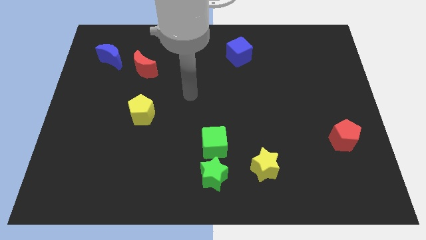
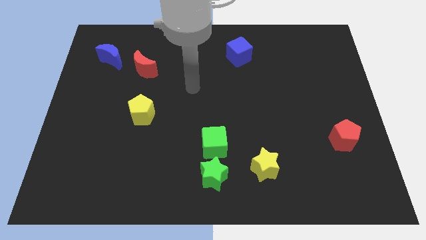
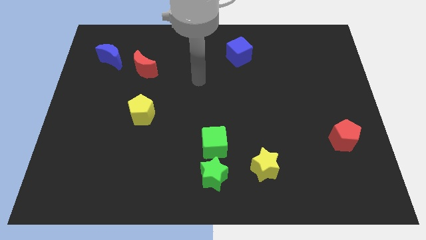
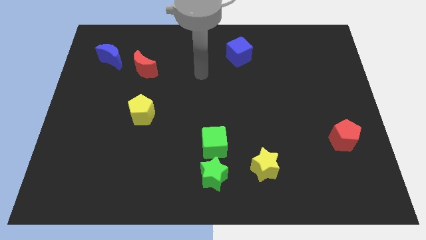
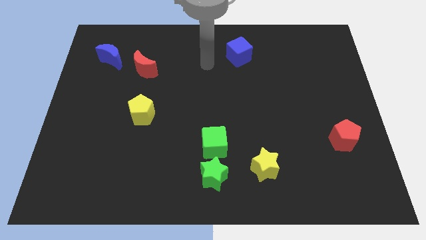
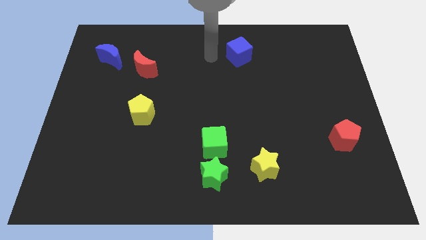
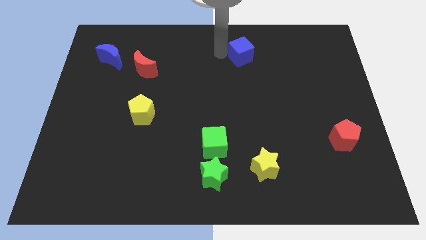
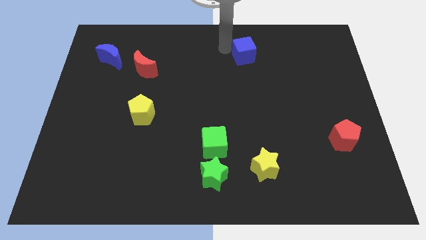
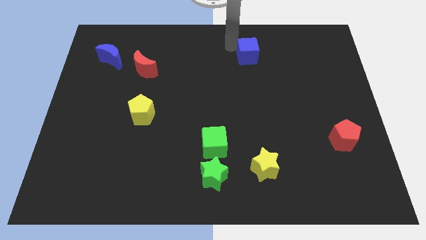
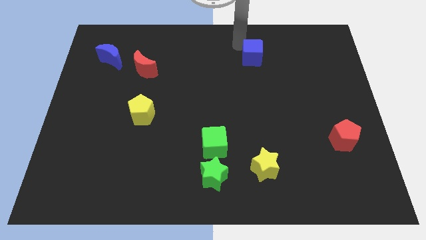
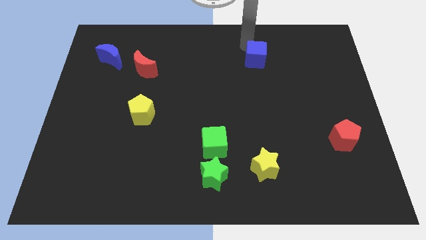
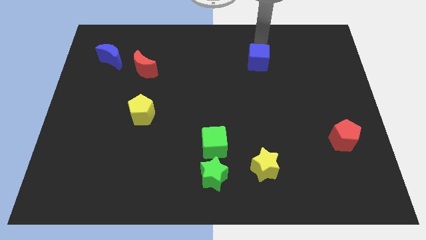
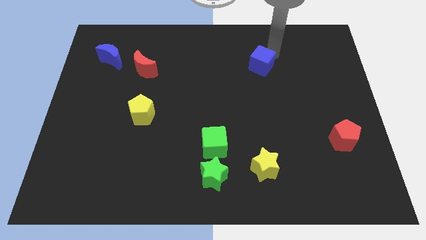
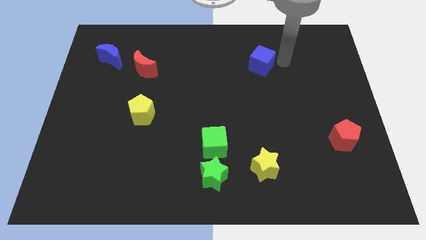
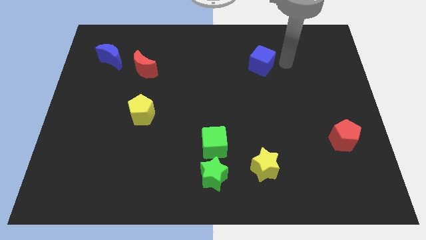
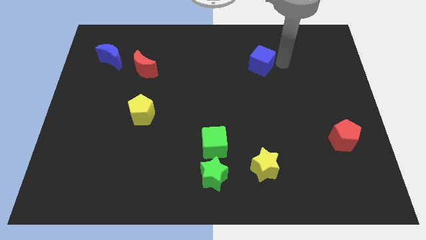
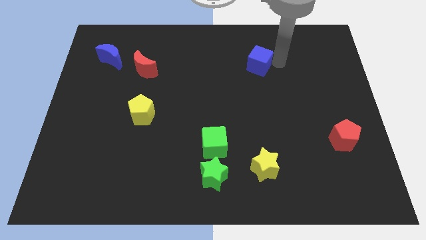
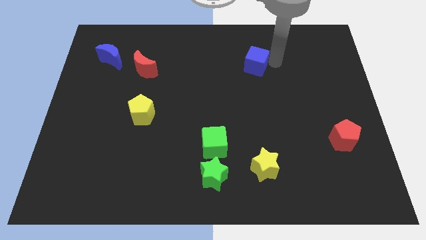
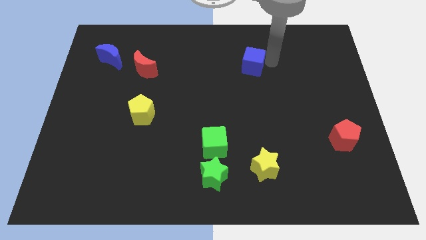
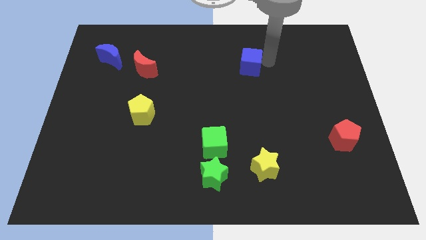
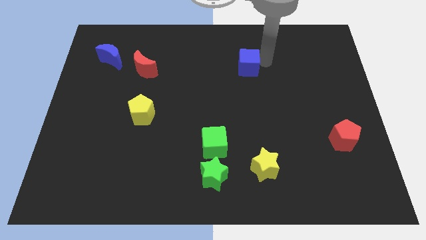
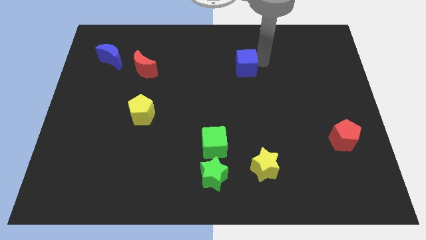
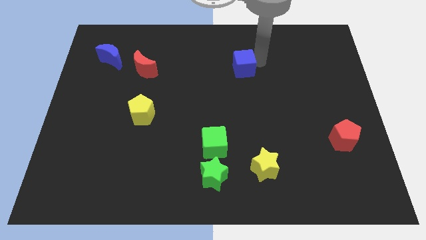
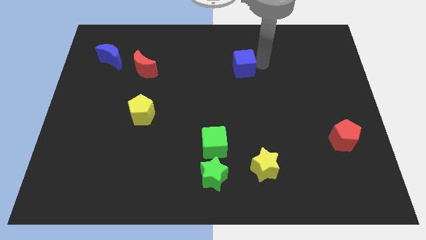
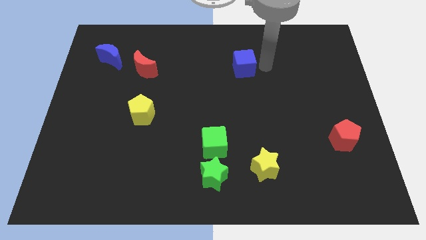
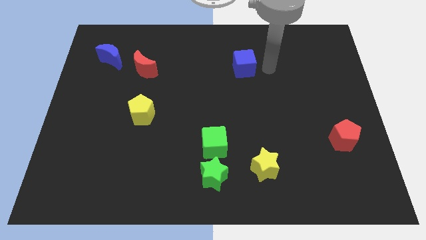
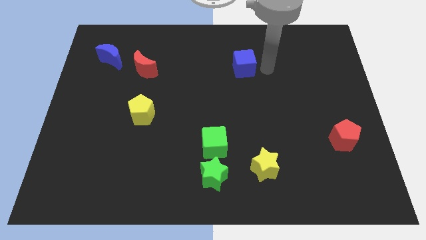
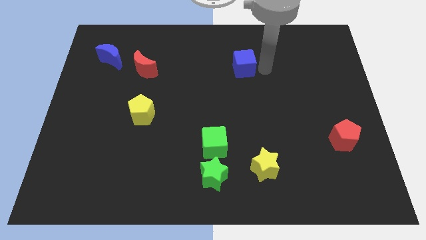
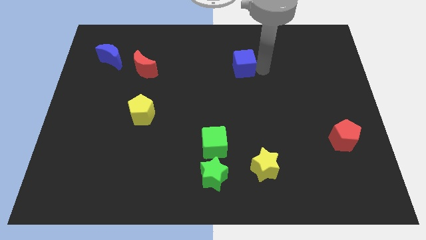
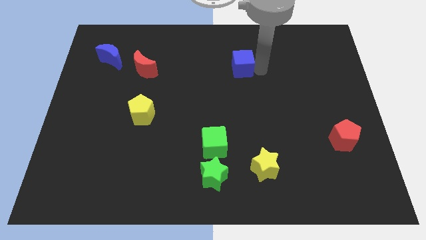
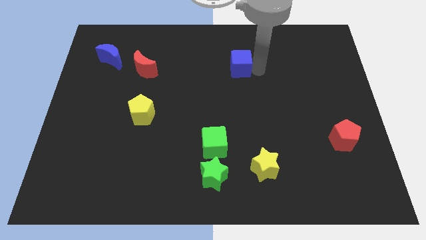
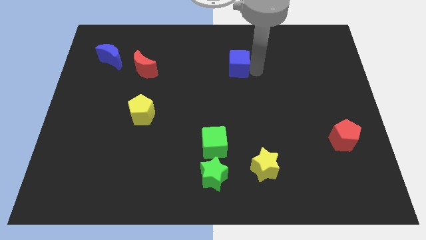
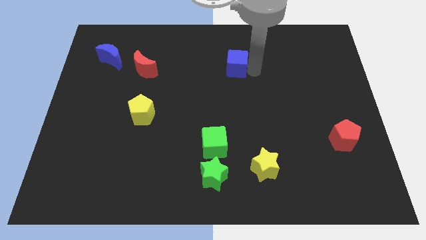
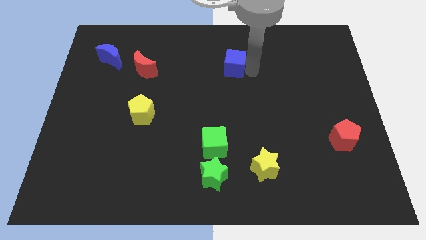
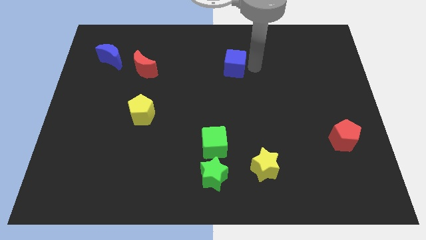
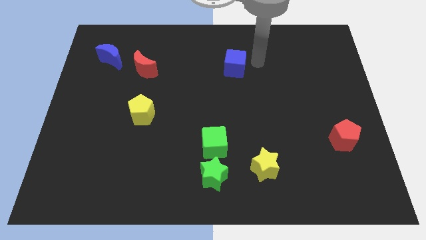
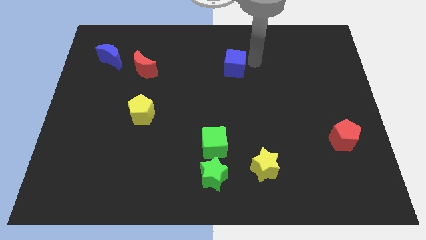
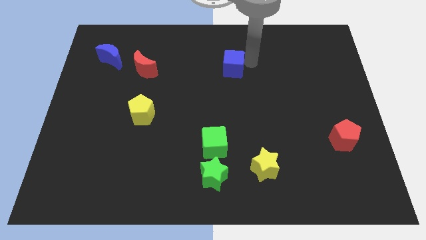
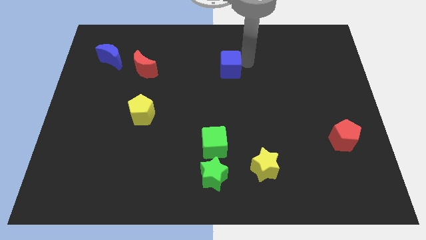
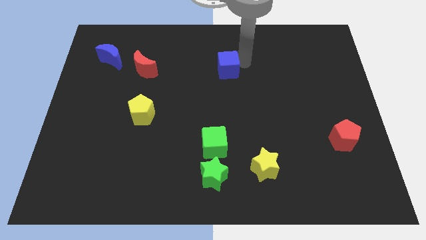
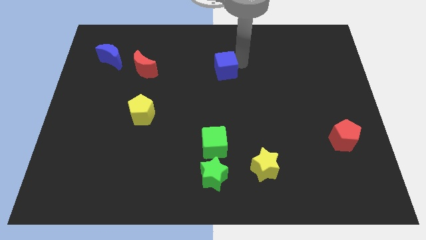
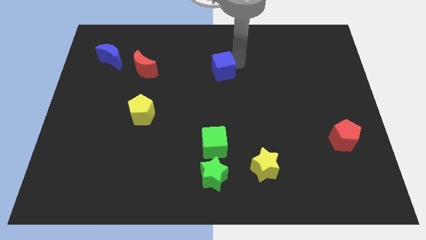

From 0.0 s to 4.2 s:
push the blue cube down and to the left a bit

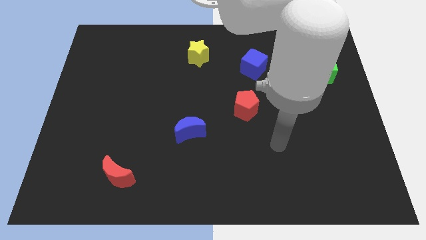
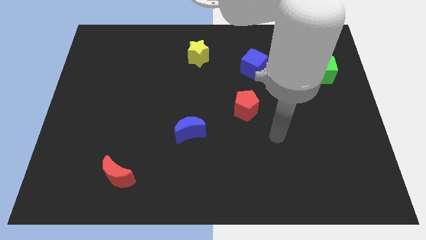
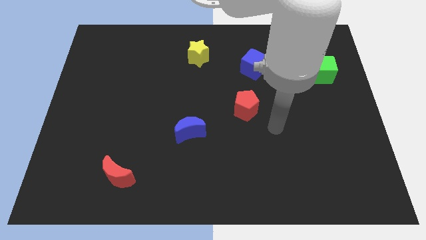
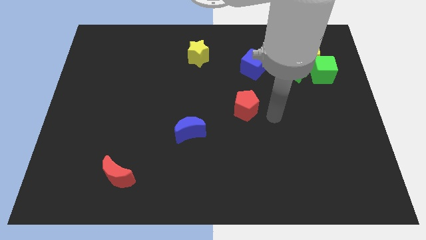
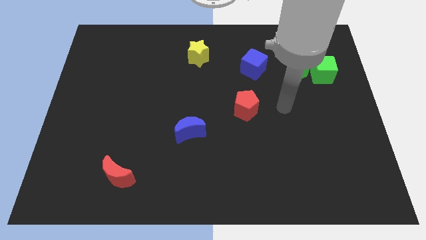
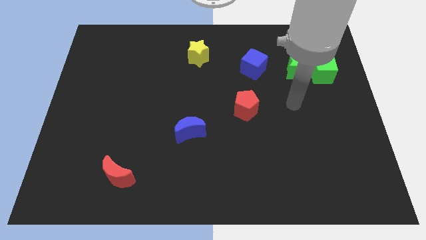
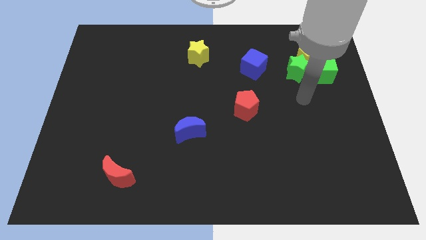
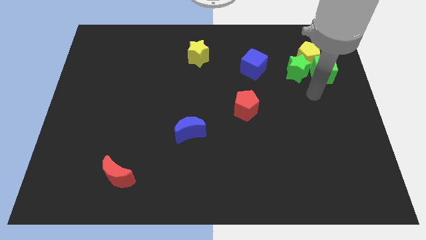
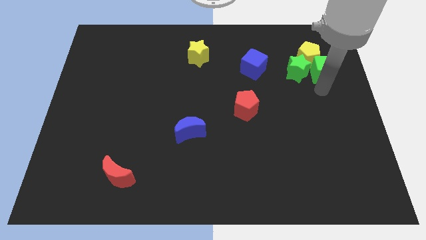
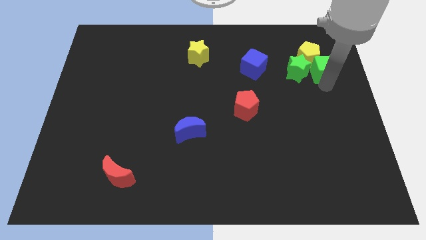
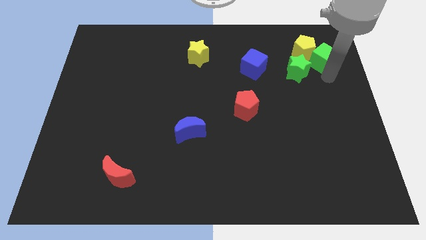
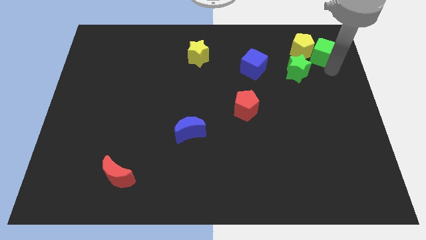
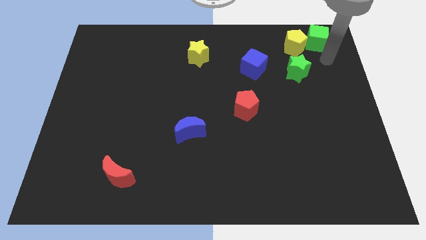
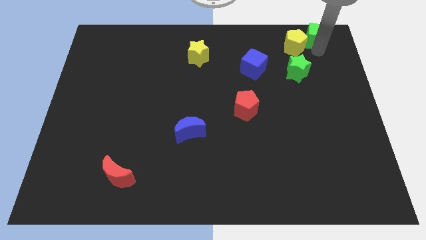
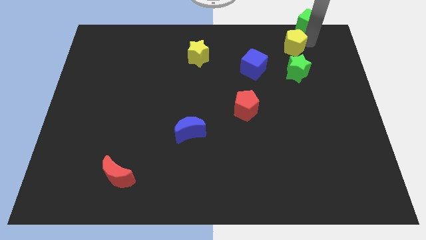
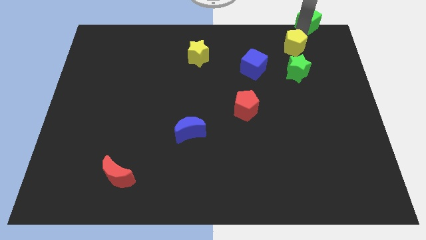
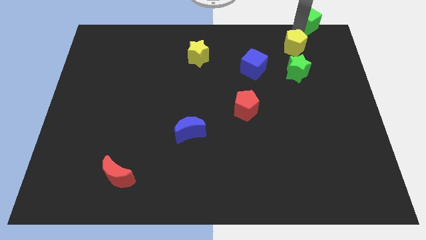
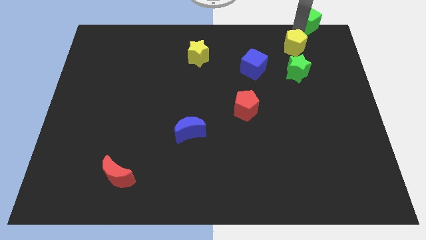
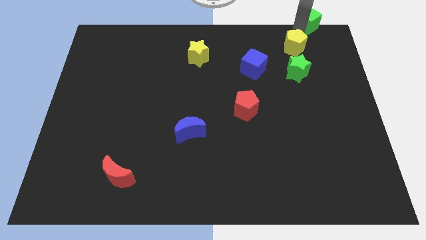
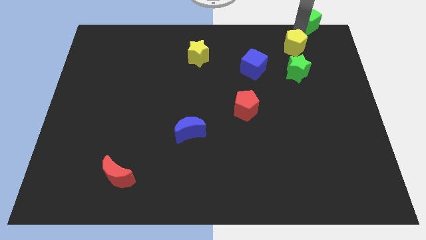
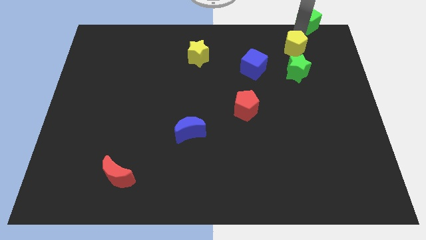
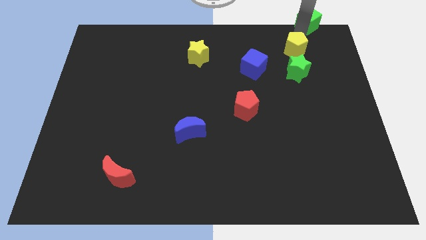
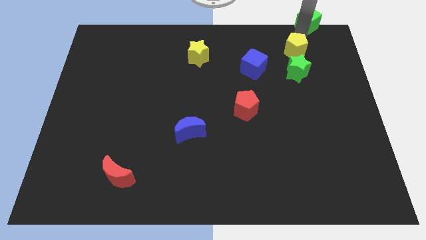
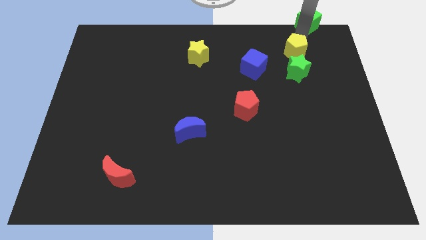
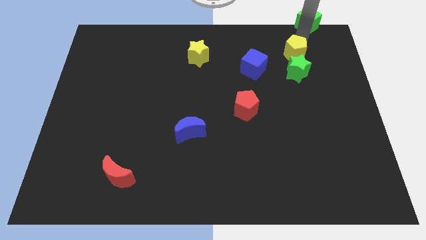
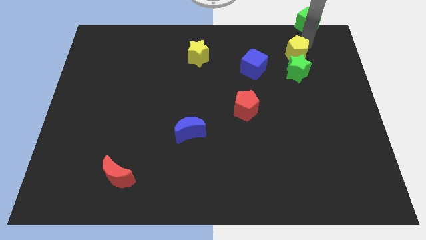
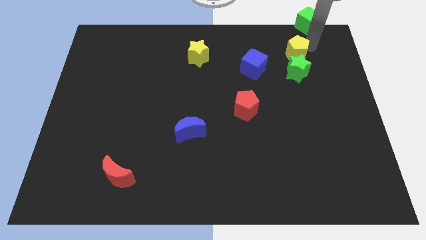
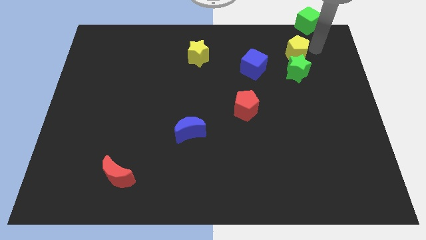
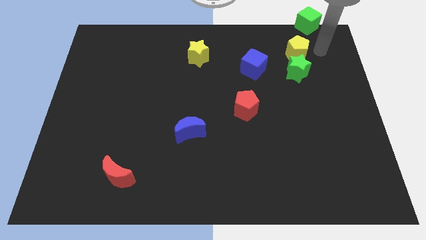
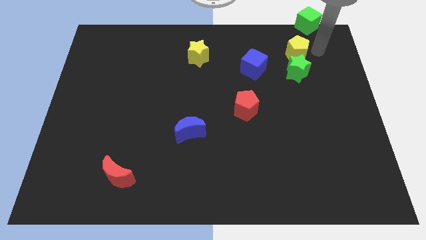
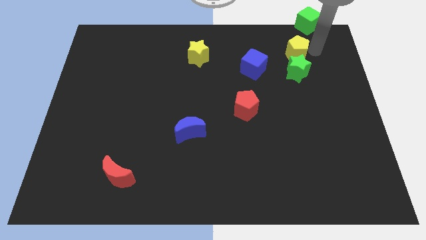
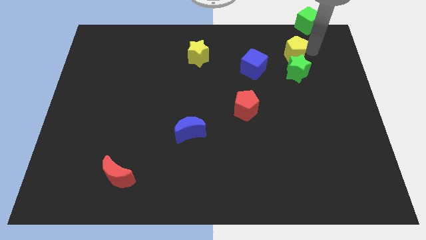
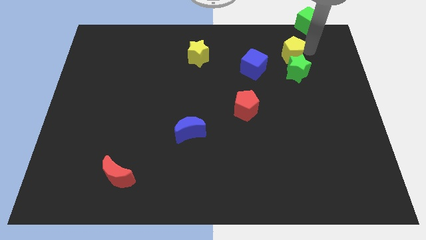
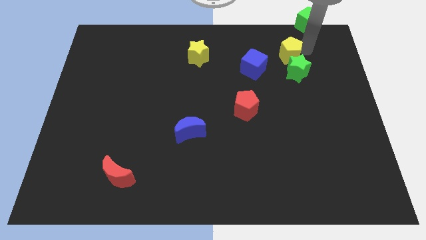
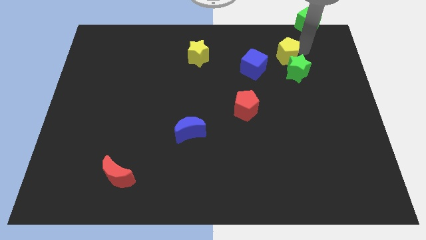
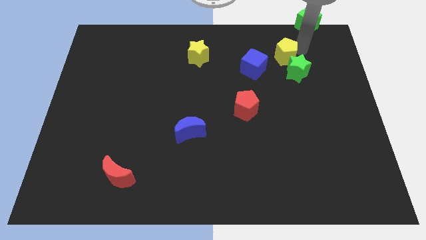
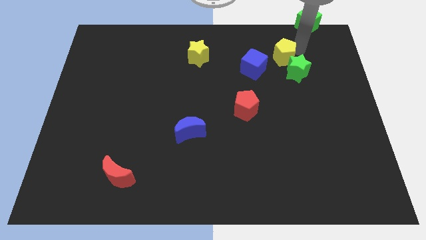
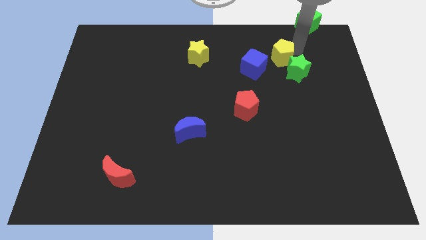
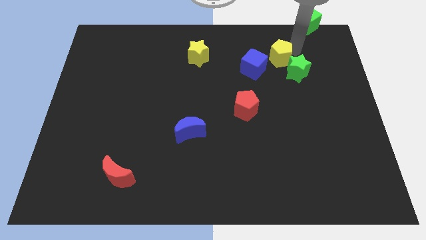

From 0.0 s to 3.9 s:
move the yellow pentagon to the left a little bit

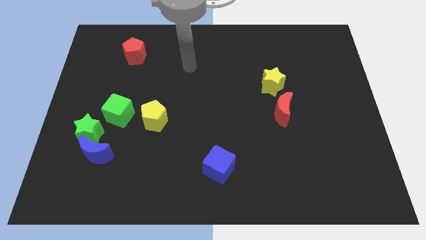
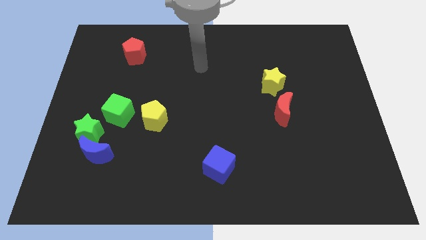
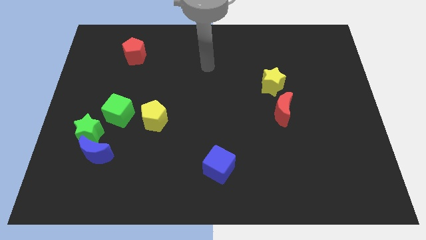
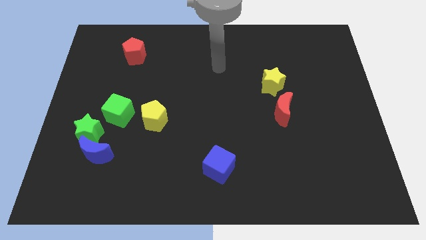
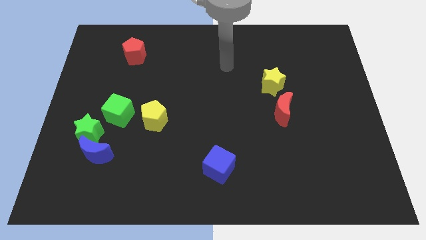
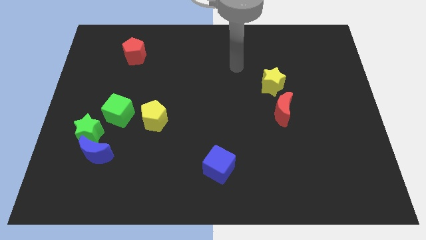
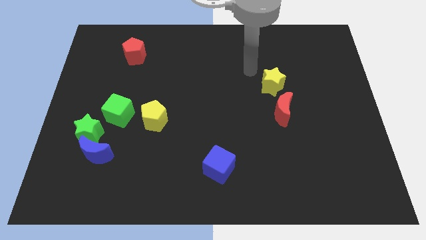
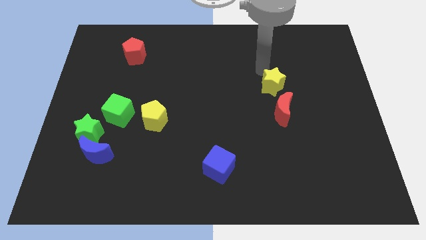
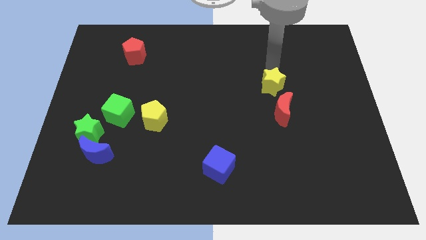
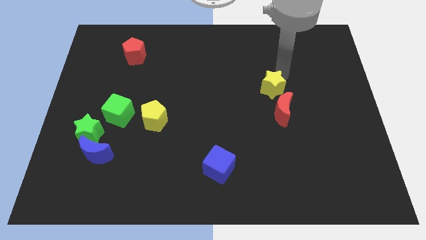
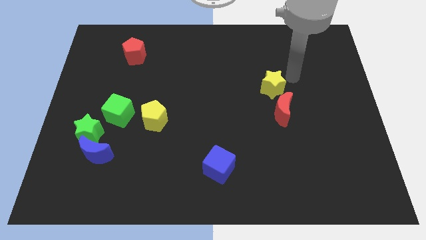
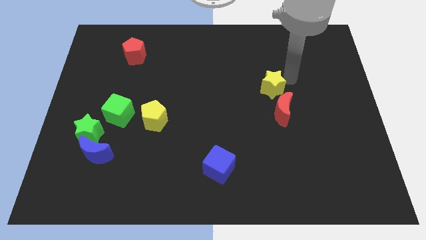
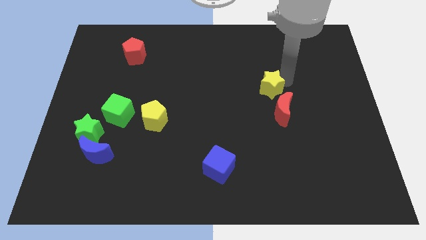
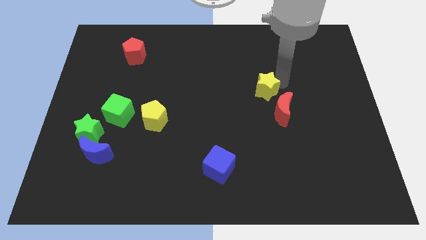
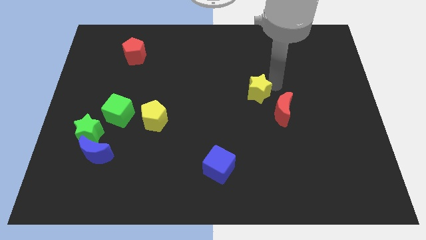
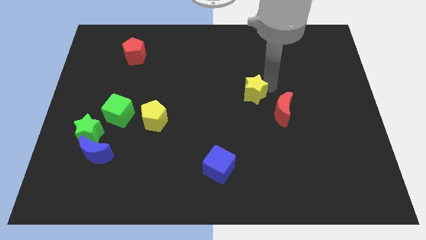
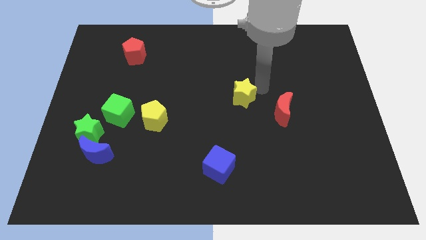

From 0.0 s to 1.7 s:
slide the yellow star downwards and to the left a little bit
